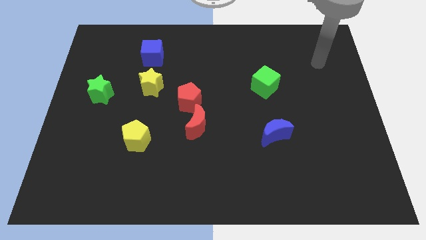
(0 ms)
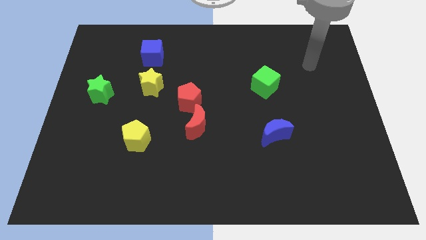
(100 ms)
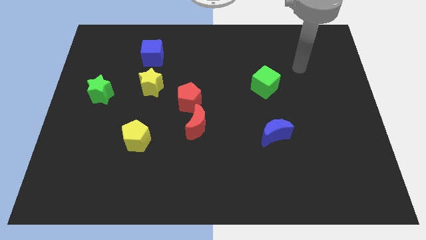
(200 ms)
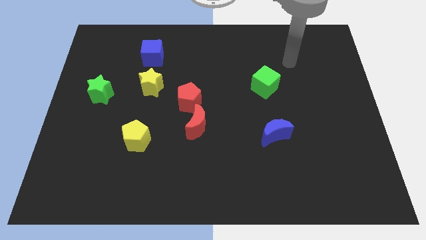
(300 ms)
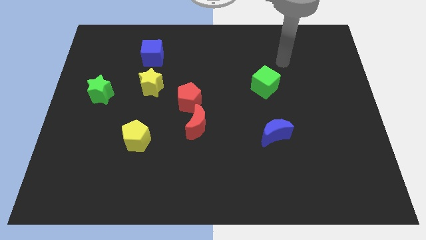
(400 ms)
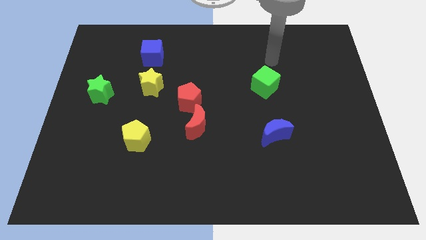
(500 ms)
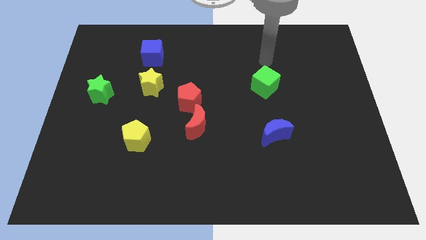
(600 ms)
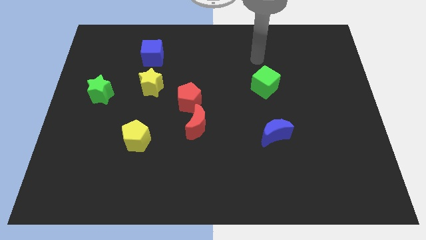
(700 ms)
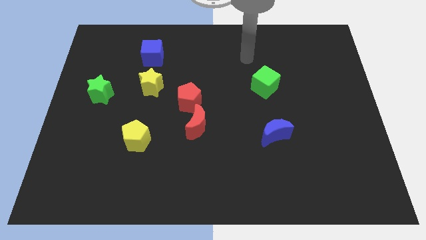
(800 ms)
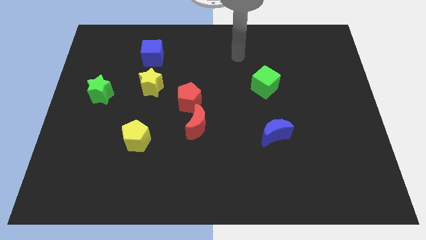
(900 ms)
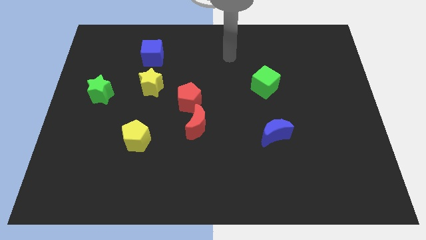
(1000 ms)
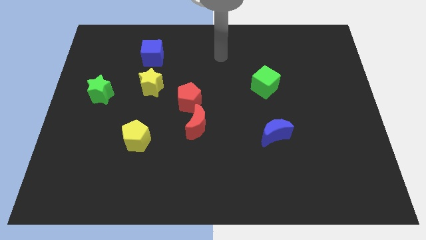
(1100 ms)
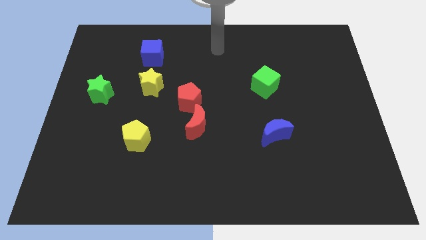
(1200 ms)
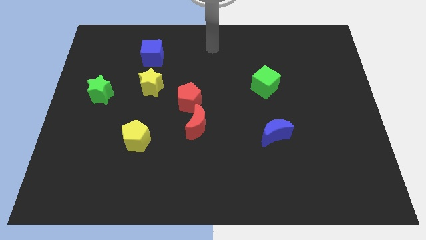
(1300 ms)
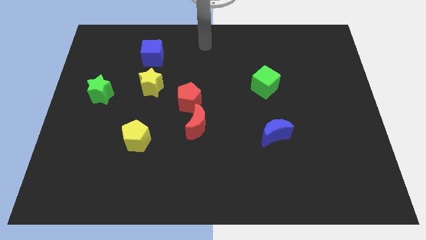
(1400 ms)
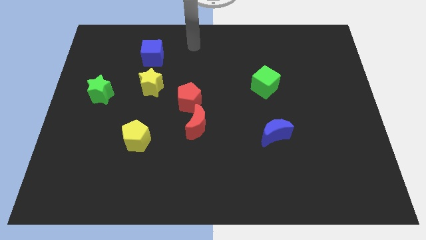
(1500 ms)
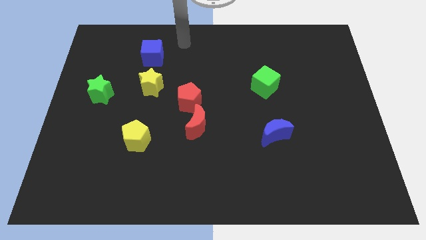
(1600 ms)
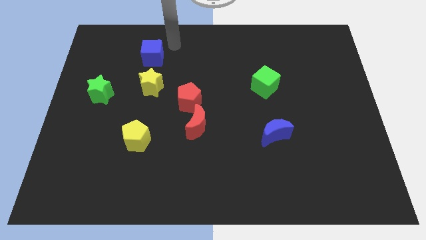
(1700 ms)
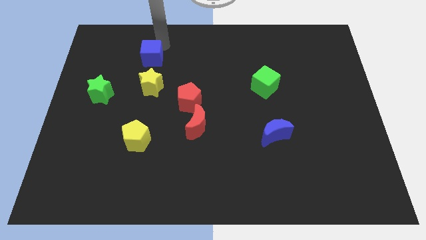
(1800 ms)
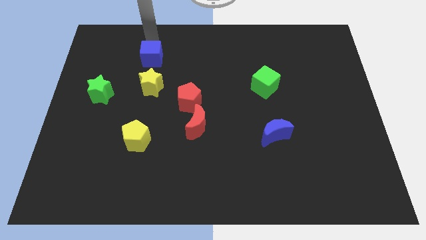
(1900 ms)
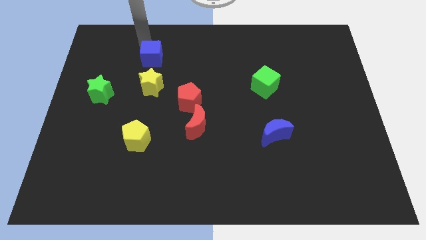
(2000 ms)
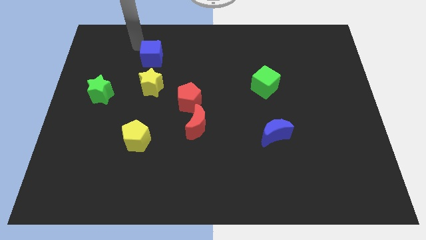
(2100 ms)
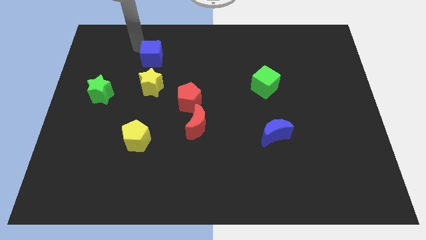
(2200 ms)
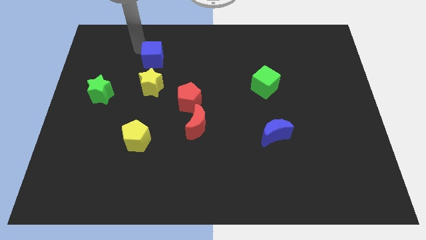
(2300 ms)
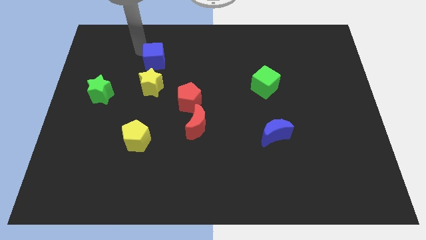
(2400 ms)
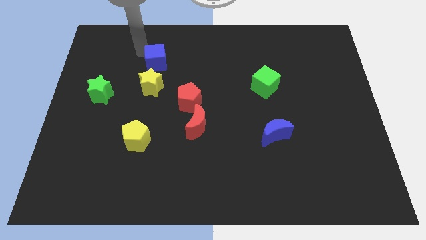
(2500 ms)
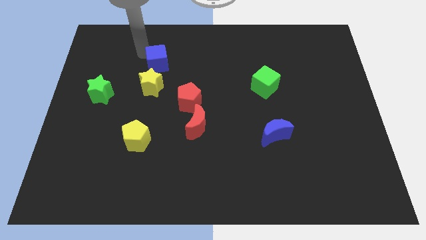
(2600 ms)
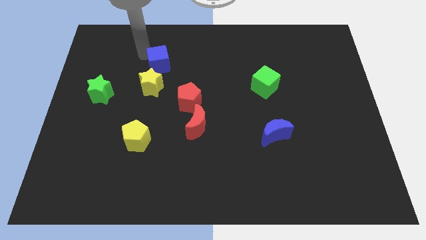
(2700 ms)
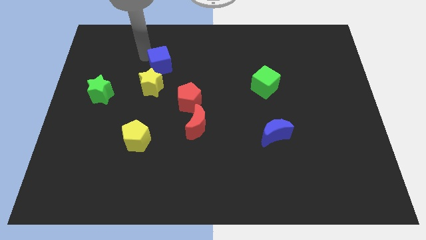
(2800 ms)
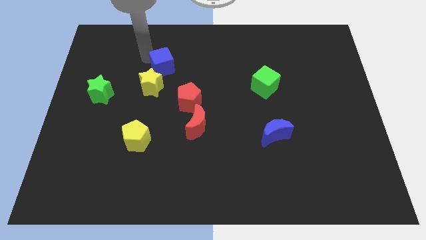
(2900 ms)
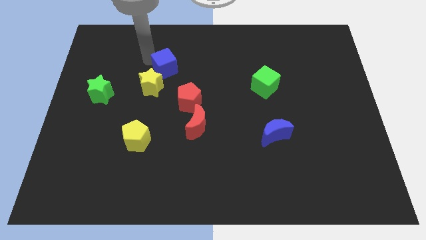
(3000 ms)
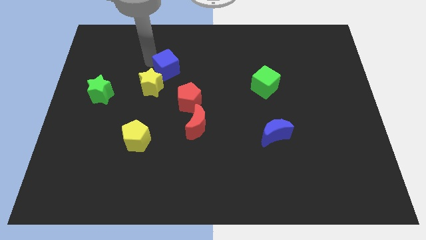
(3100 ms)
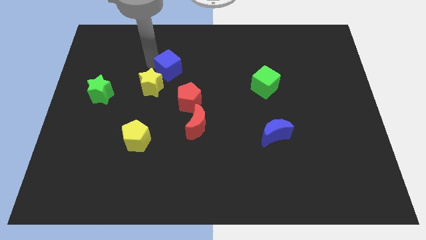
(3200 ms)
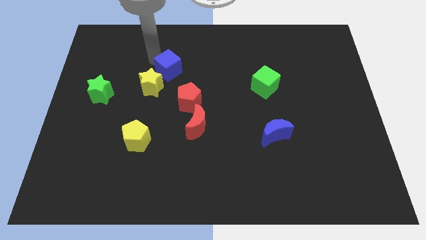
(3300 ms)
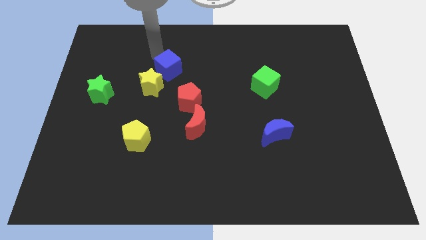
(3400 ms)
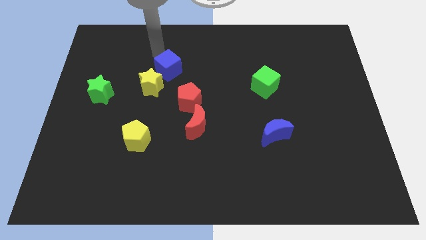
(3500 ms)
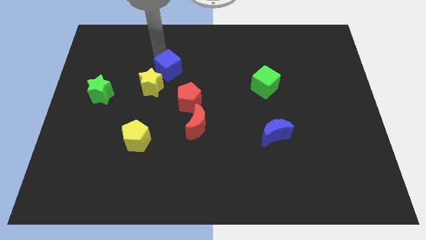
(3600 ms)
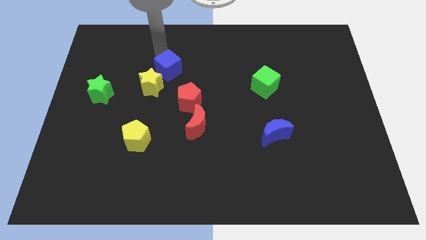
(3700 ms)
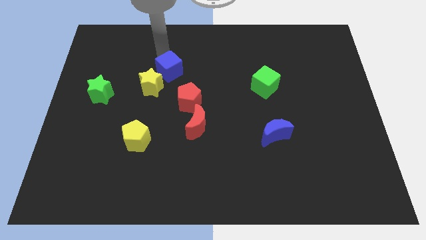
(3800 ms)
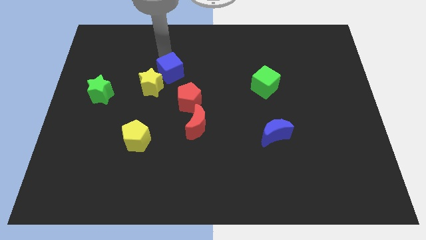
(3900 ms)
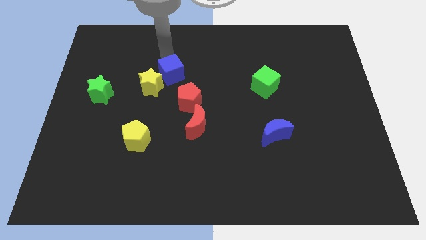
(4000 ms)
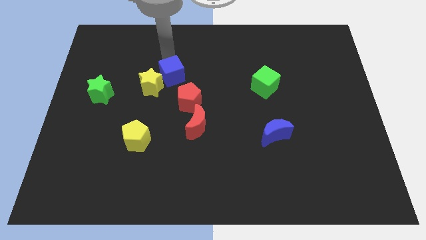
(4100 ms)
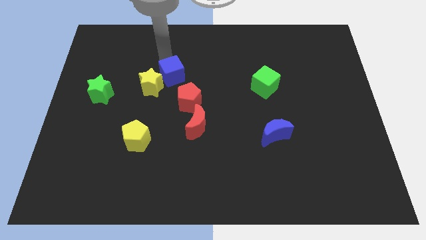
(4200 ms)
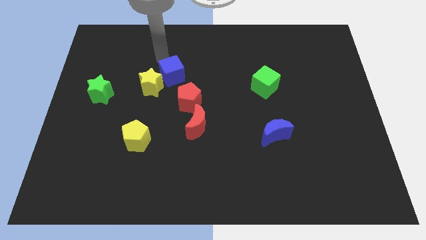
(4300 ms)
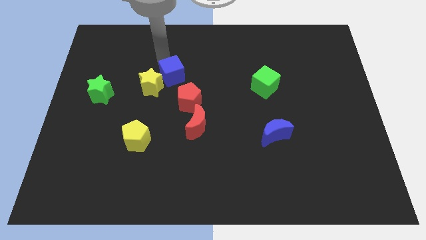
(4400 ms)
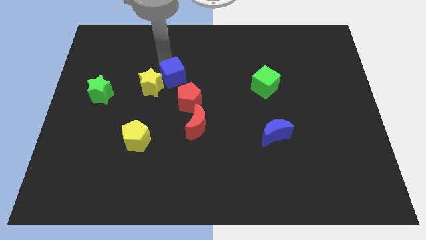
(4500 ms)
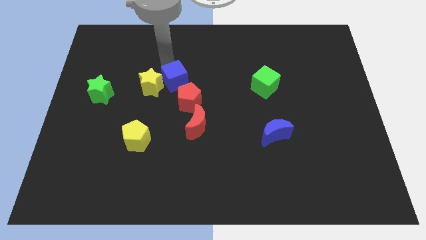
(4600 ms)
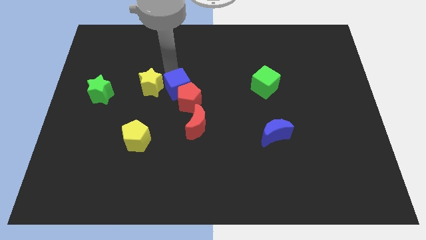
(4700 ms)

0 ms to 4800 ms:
push the blue cube next to the red pentagon

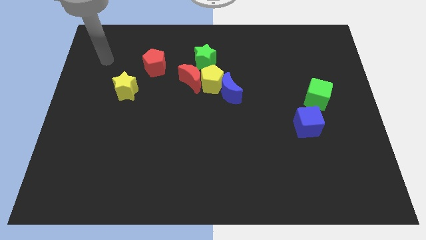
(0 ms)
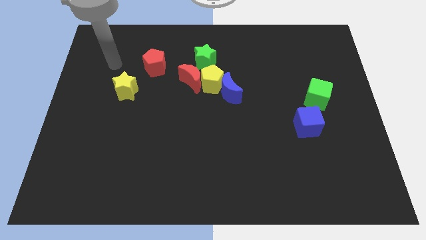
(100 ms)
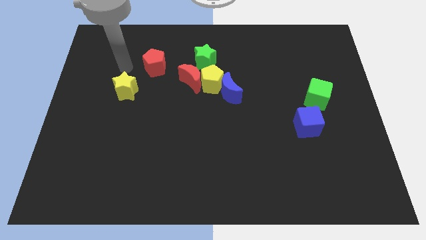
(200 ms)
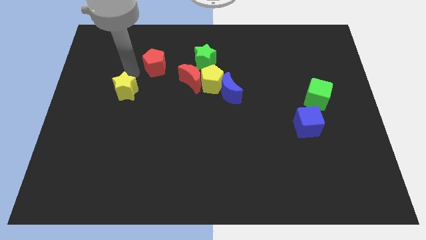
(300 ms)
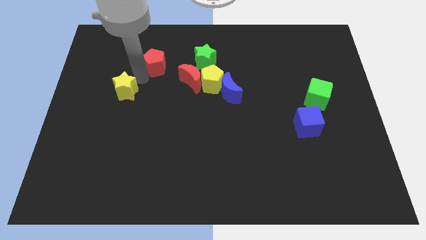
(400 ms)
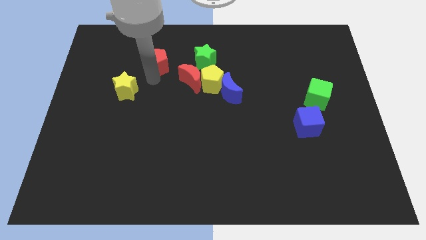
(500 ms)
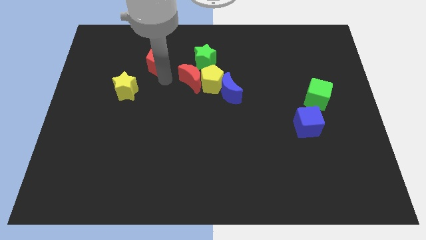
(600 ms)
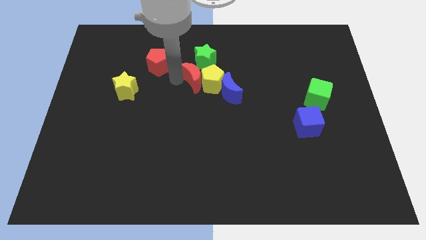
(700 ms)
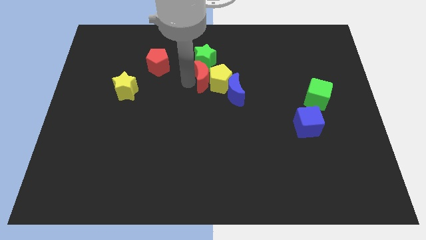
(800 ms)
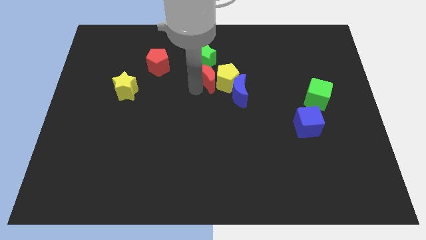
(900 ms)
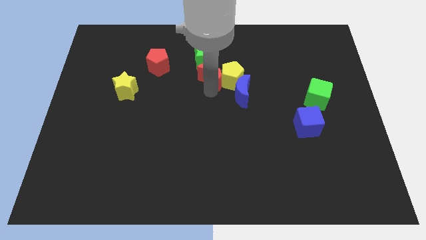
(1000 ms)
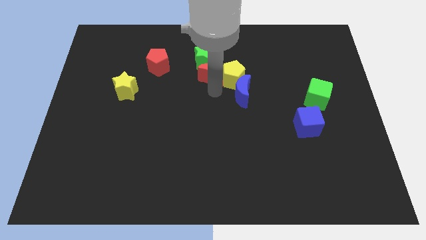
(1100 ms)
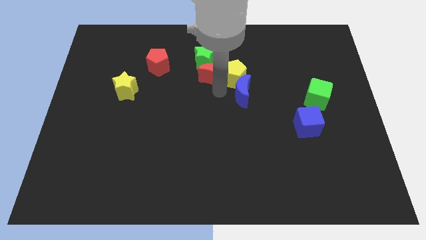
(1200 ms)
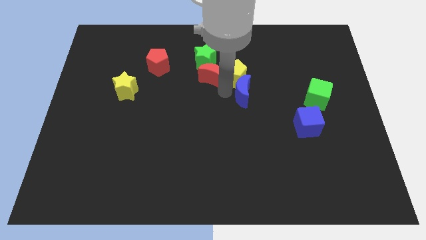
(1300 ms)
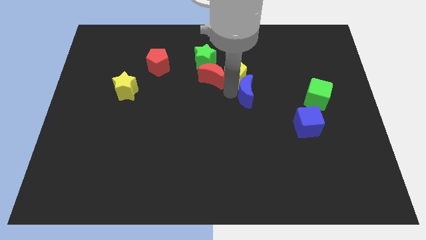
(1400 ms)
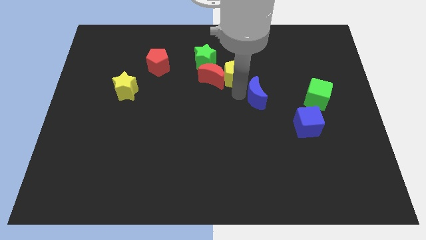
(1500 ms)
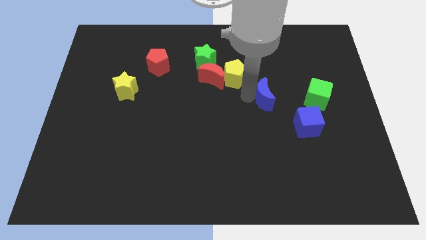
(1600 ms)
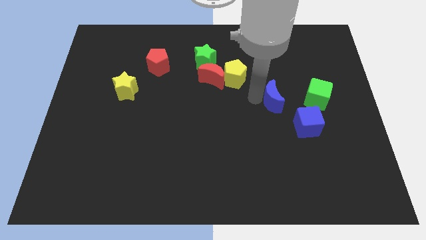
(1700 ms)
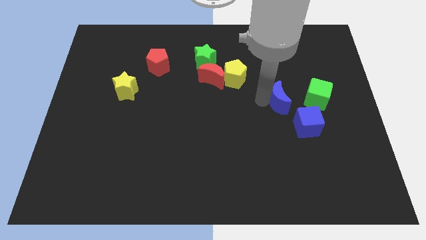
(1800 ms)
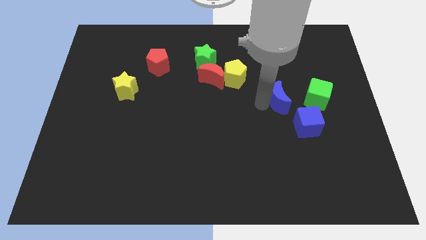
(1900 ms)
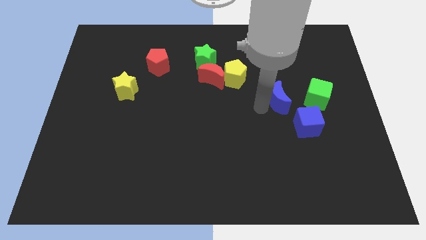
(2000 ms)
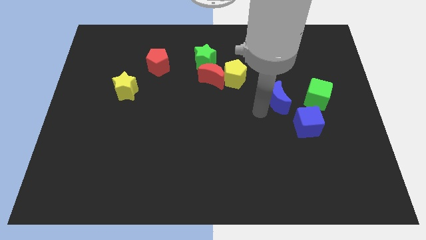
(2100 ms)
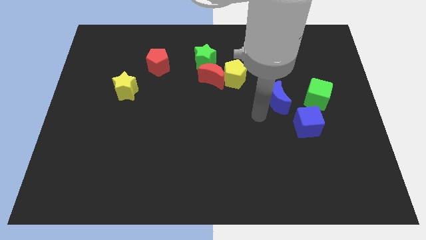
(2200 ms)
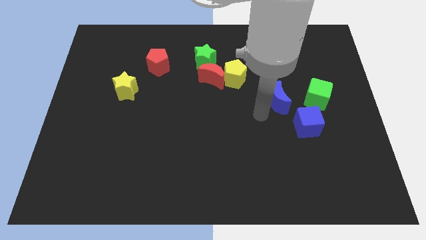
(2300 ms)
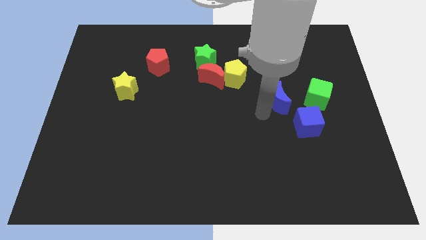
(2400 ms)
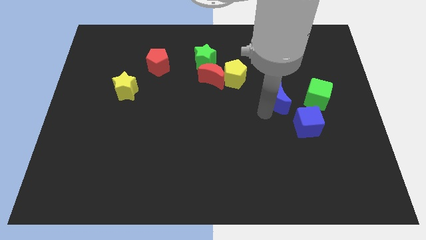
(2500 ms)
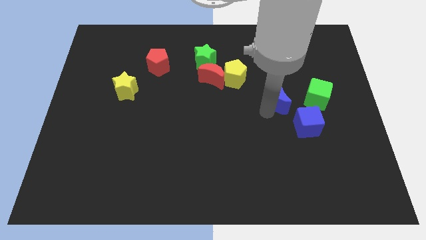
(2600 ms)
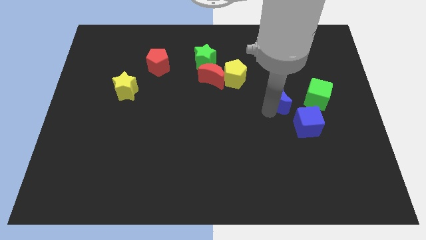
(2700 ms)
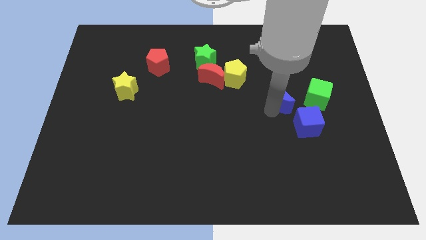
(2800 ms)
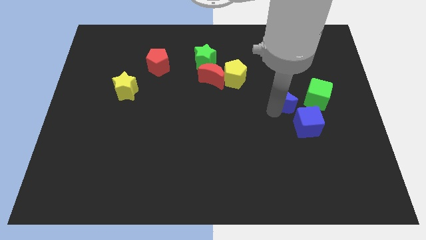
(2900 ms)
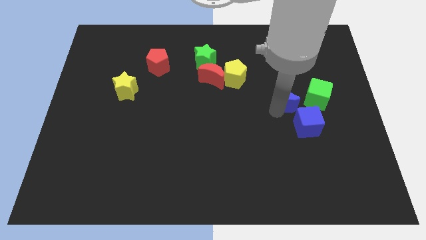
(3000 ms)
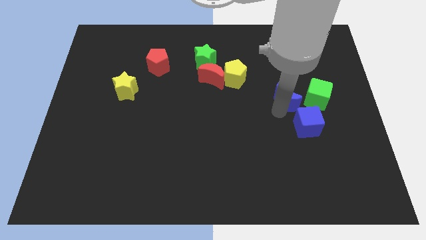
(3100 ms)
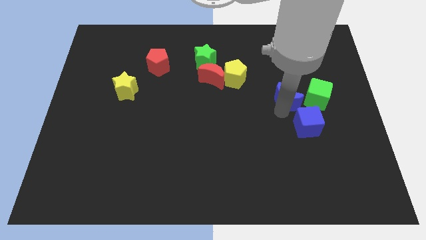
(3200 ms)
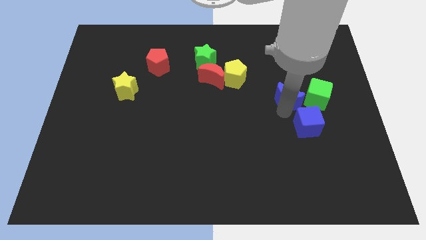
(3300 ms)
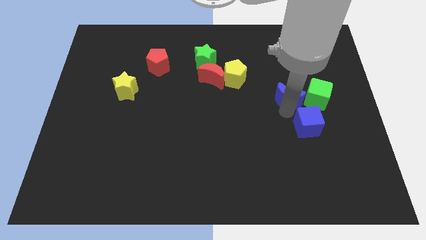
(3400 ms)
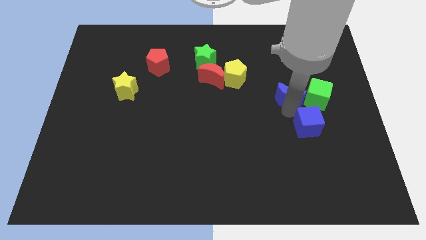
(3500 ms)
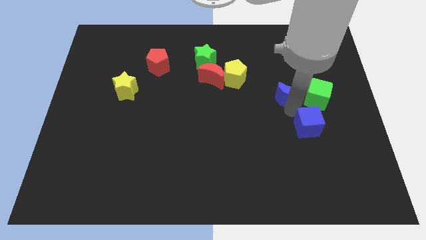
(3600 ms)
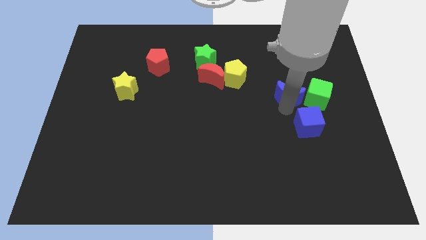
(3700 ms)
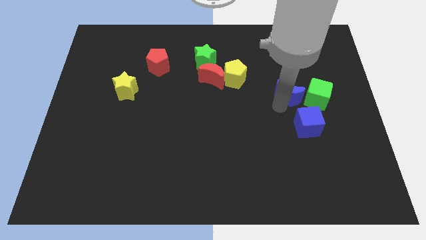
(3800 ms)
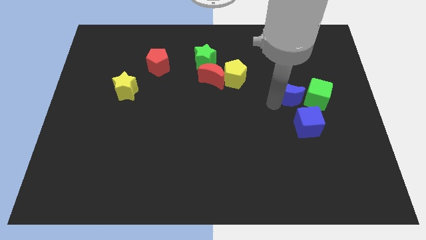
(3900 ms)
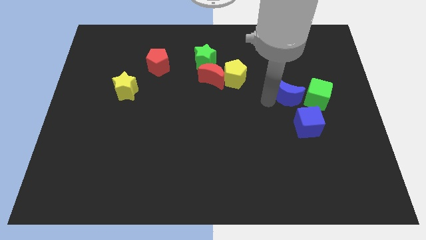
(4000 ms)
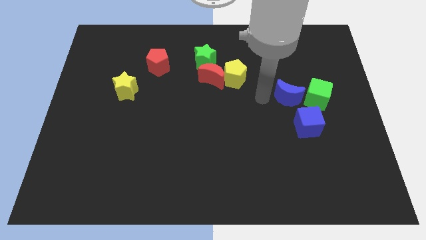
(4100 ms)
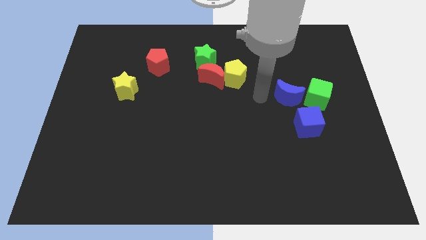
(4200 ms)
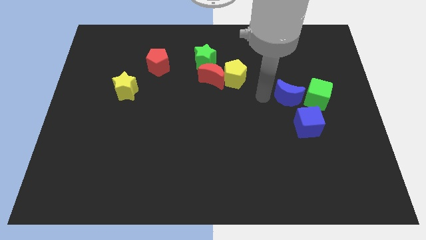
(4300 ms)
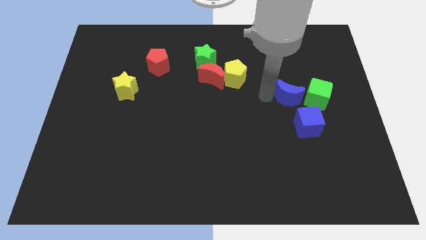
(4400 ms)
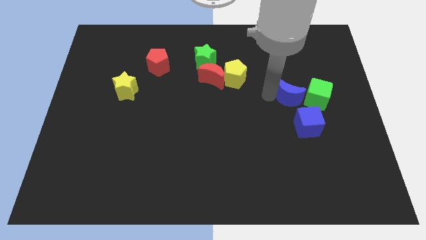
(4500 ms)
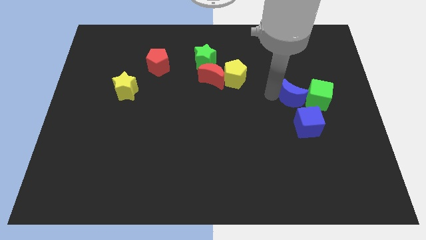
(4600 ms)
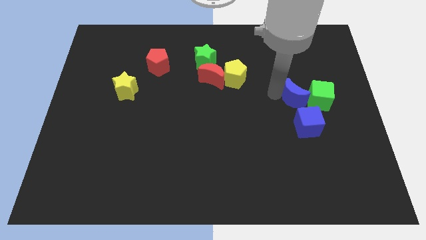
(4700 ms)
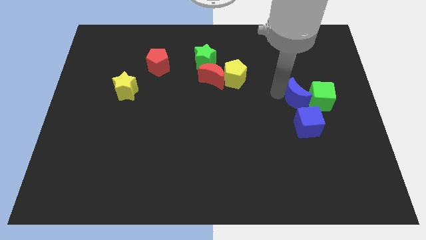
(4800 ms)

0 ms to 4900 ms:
slide the blue moon close to the green cube
